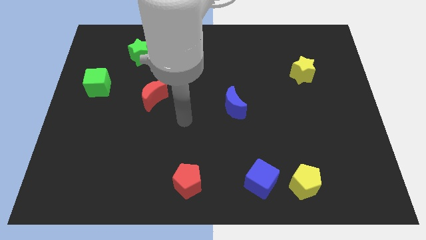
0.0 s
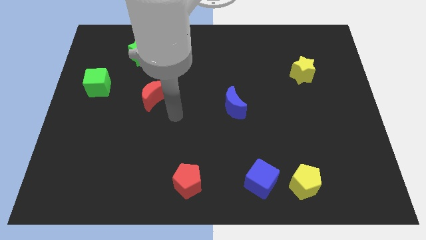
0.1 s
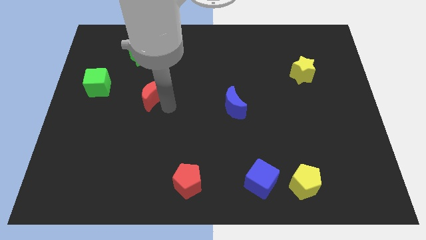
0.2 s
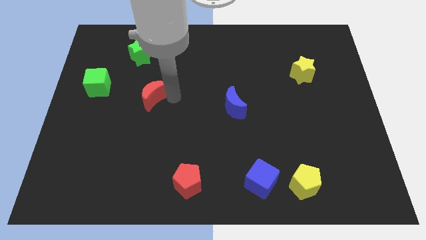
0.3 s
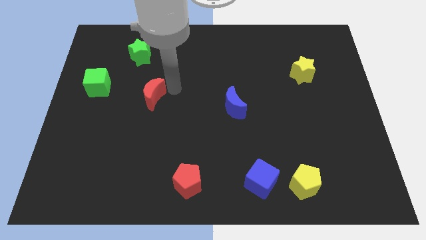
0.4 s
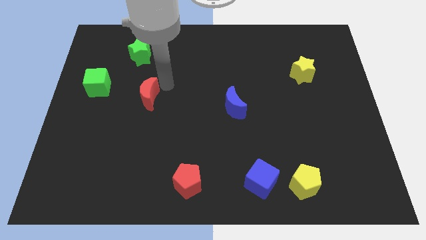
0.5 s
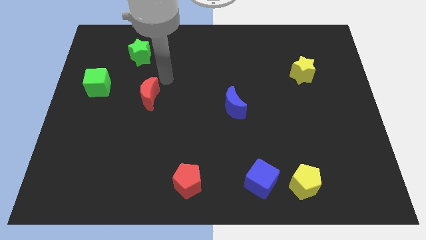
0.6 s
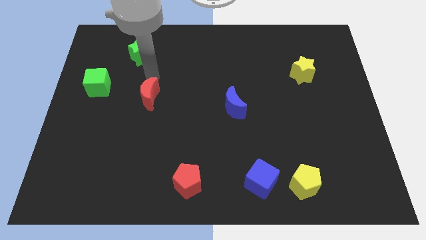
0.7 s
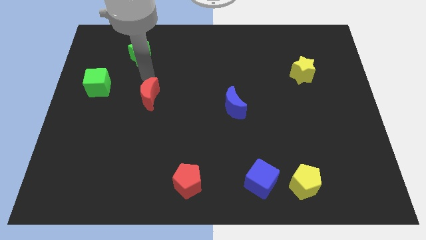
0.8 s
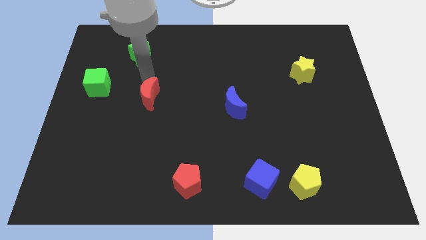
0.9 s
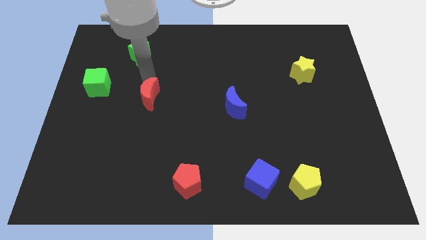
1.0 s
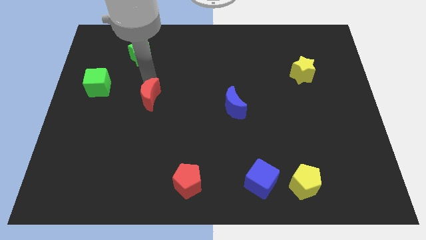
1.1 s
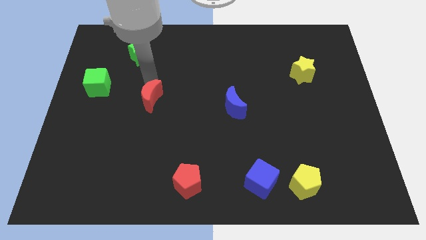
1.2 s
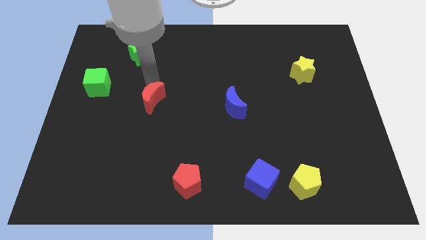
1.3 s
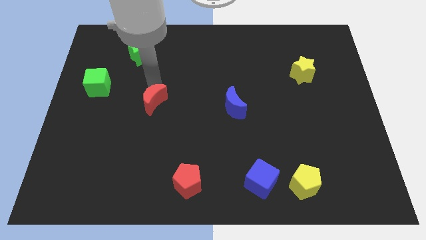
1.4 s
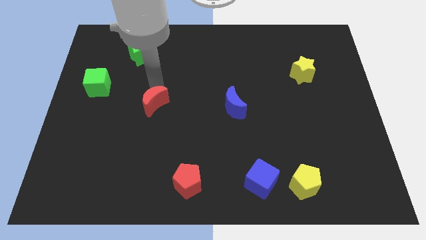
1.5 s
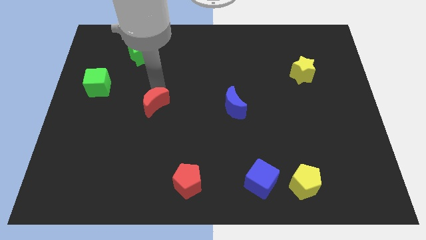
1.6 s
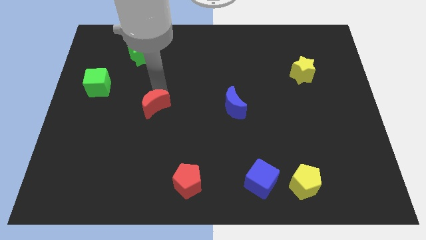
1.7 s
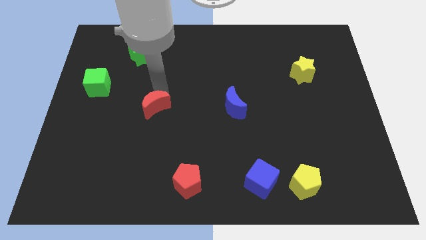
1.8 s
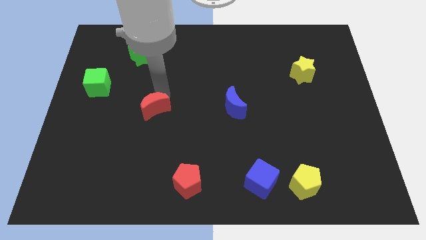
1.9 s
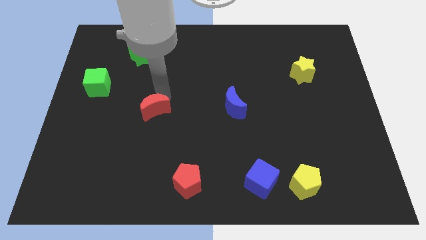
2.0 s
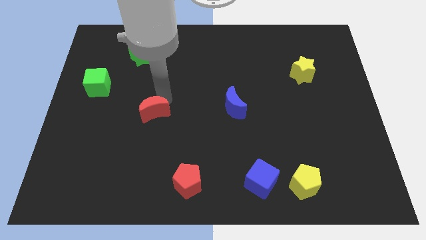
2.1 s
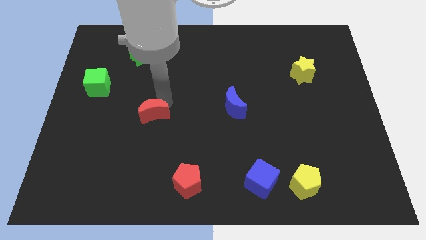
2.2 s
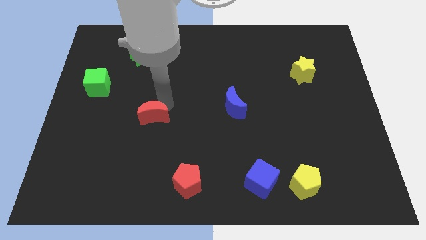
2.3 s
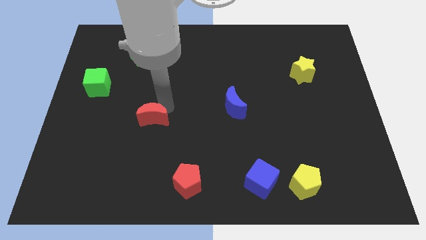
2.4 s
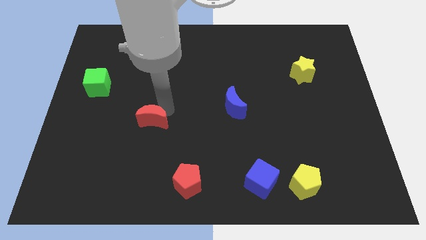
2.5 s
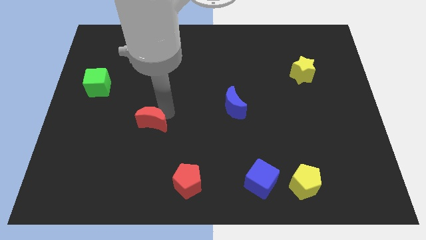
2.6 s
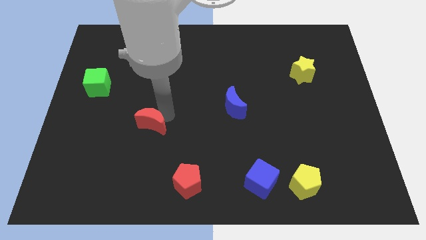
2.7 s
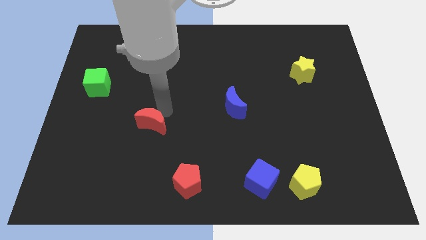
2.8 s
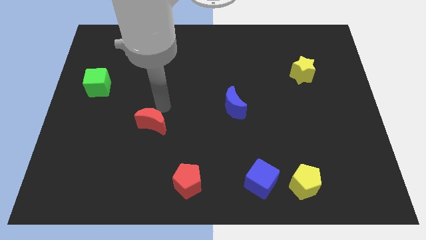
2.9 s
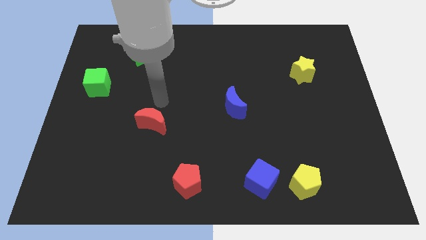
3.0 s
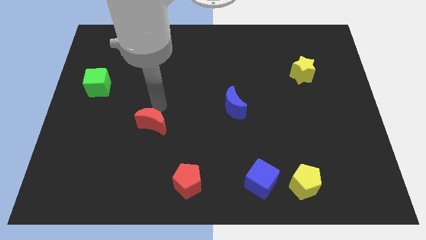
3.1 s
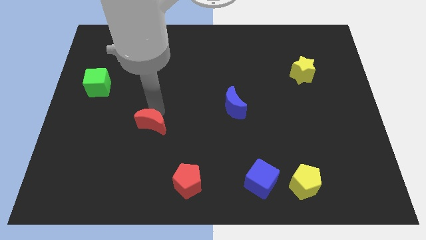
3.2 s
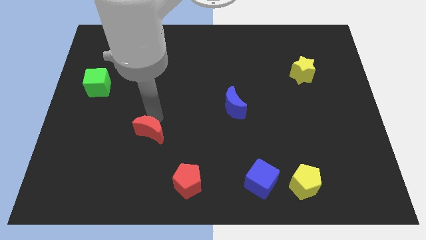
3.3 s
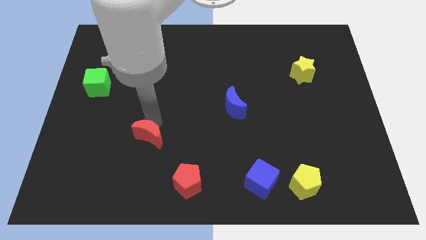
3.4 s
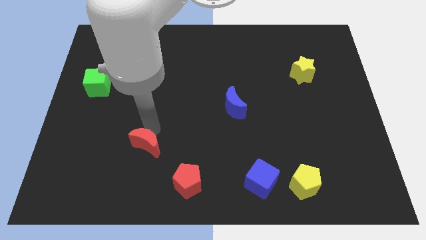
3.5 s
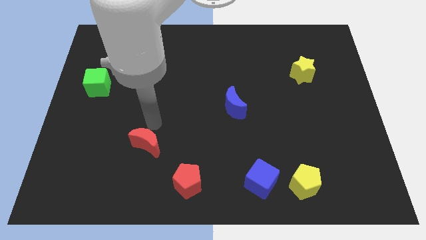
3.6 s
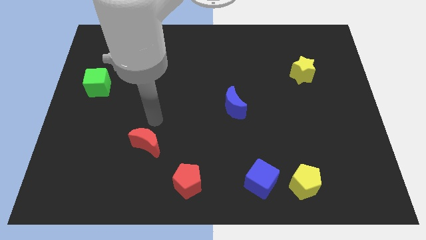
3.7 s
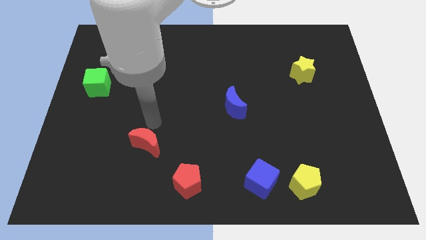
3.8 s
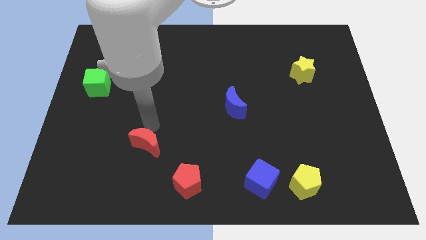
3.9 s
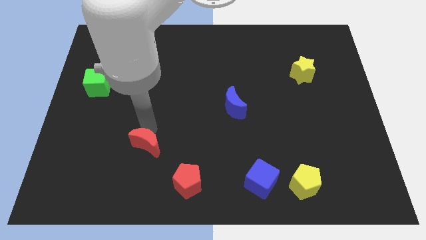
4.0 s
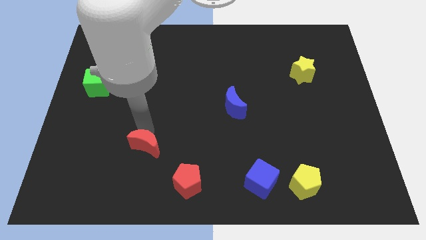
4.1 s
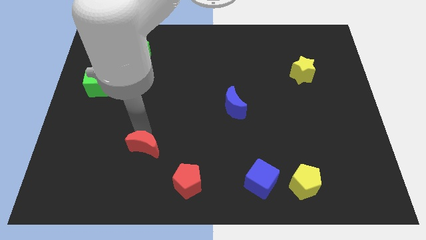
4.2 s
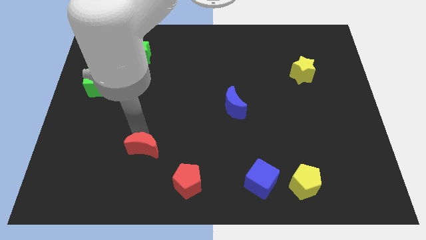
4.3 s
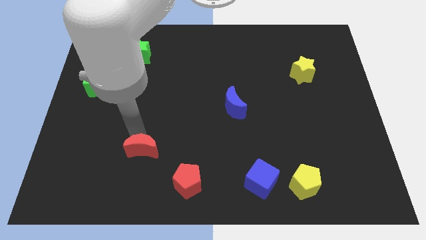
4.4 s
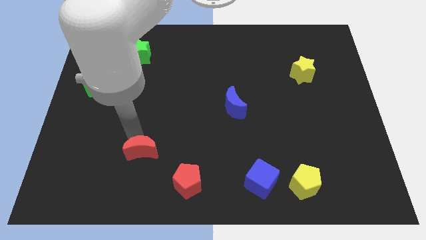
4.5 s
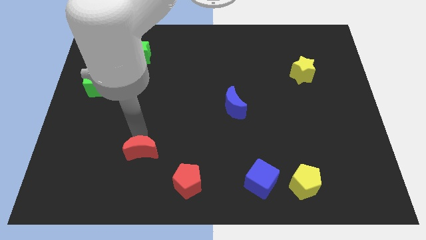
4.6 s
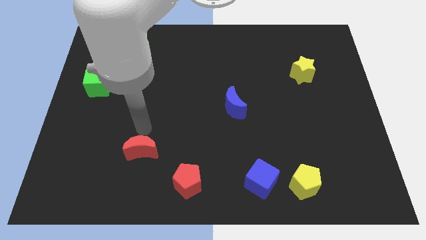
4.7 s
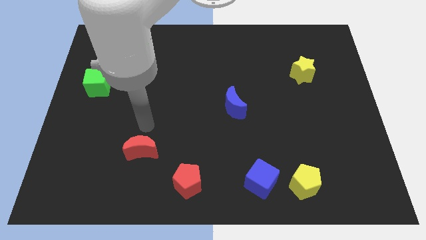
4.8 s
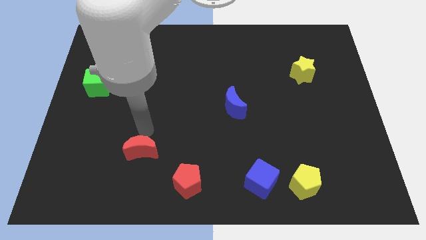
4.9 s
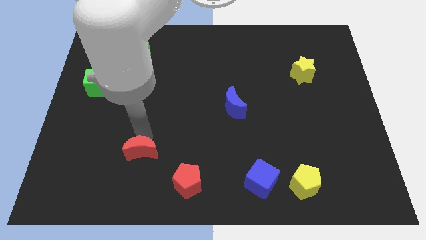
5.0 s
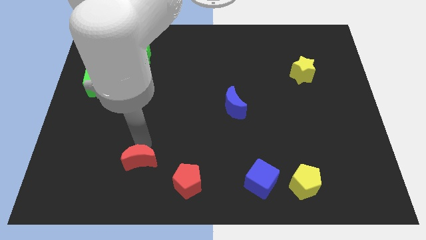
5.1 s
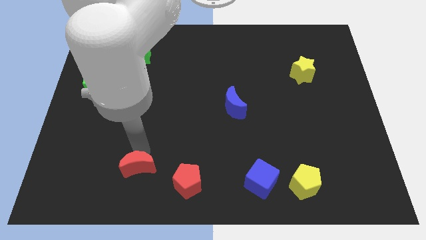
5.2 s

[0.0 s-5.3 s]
move the red moon to the left side of the red pentagon

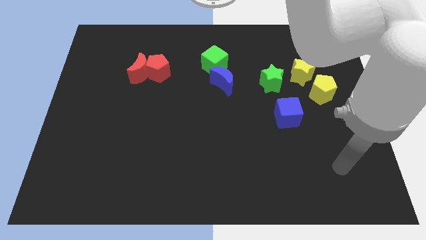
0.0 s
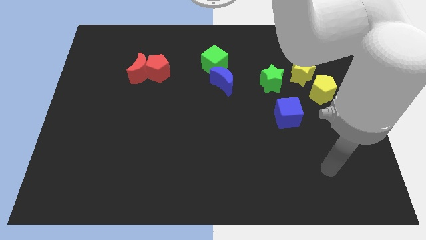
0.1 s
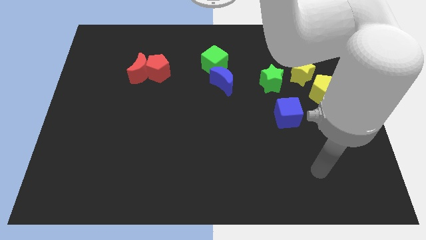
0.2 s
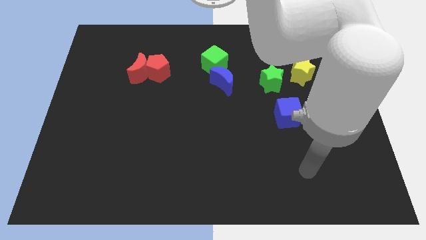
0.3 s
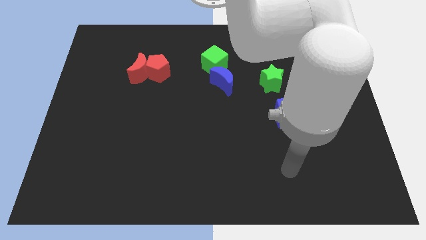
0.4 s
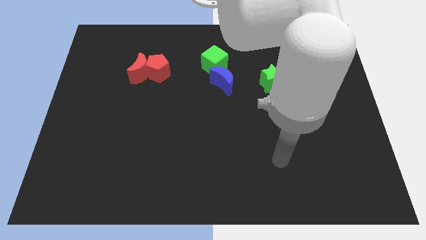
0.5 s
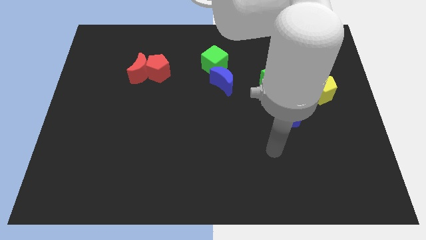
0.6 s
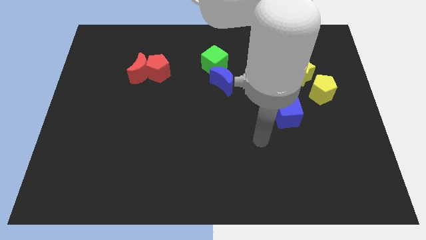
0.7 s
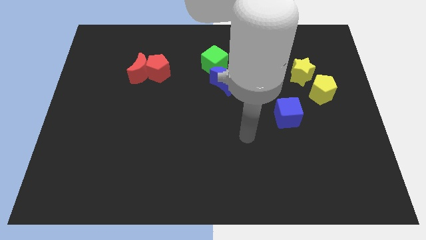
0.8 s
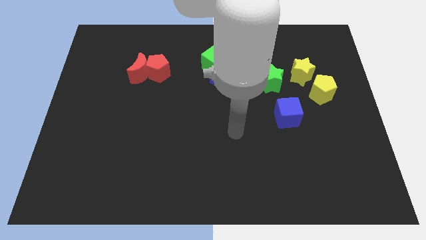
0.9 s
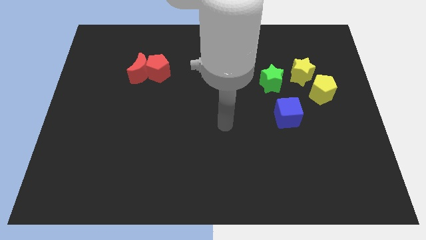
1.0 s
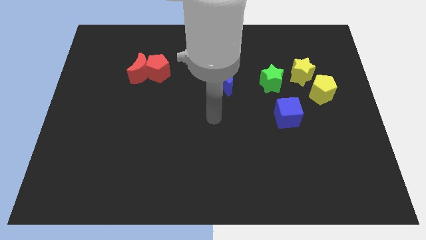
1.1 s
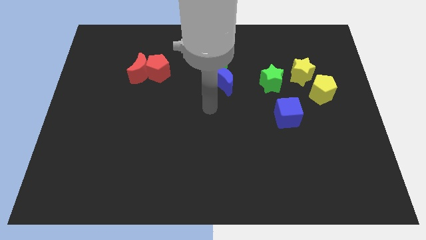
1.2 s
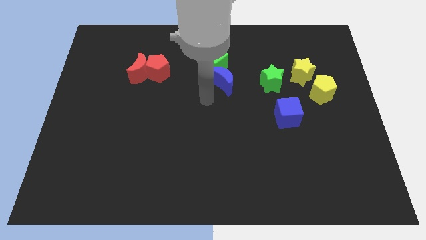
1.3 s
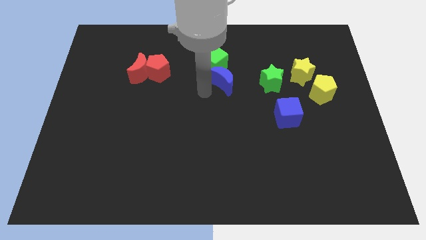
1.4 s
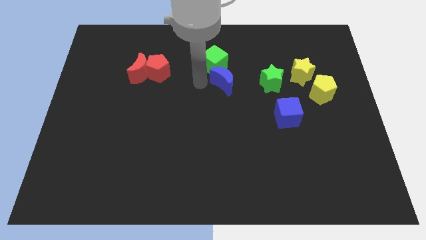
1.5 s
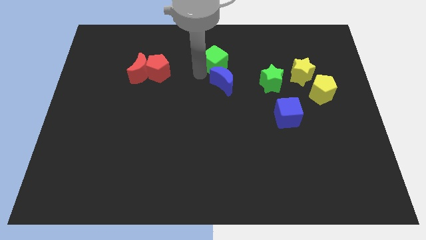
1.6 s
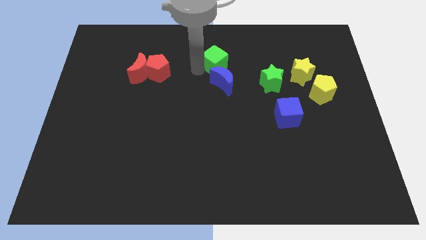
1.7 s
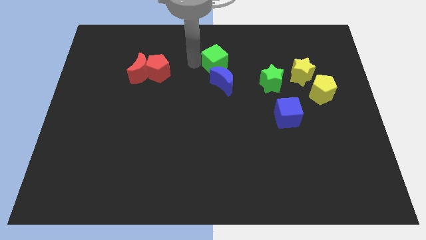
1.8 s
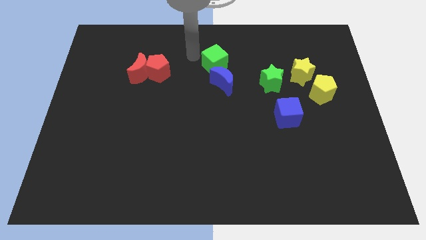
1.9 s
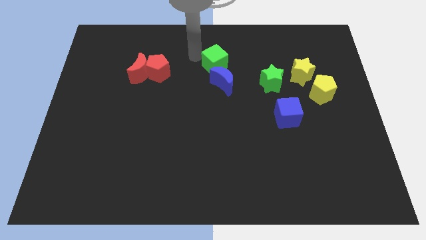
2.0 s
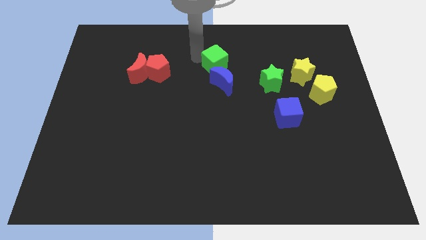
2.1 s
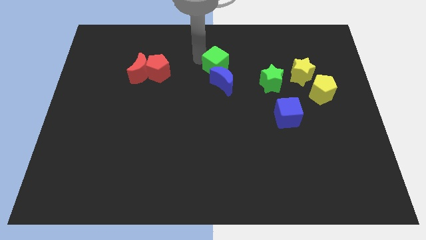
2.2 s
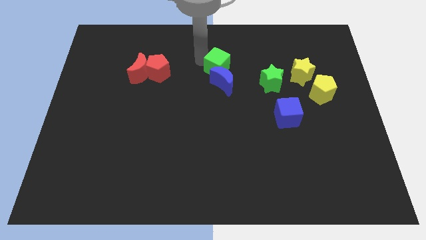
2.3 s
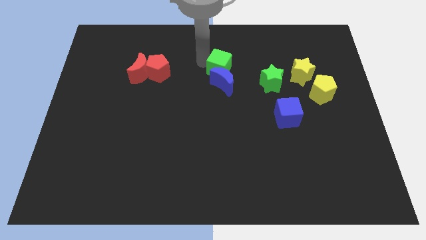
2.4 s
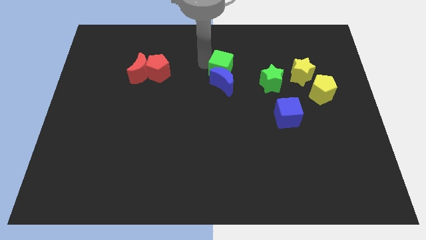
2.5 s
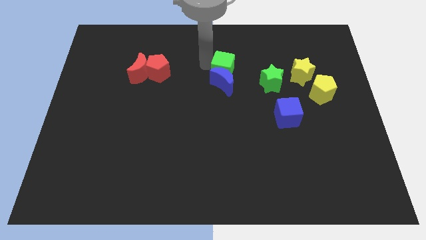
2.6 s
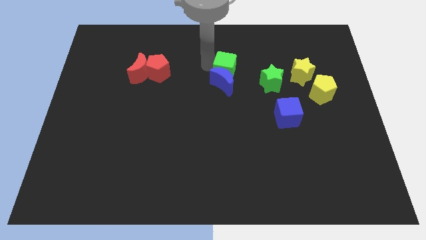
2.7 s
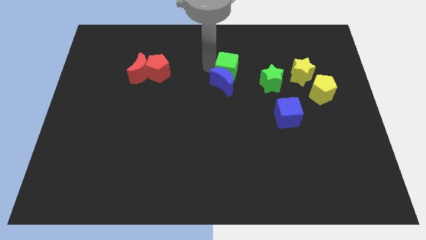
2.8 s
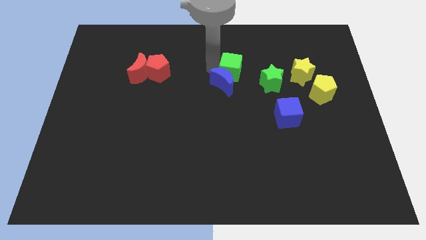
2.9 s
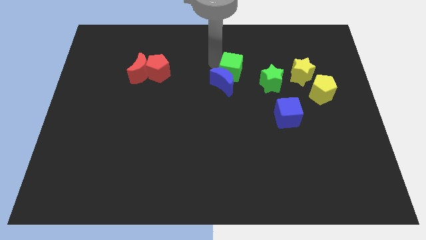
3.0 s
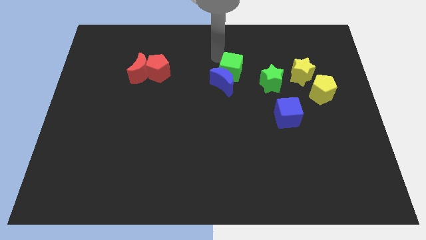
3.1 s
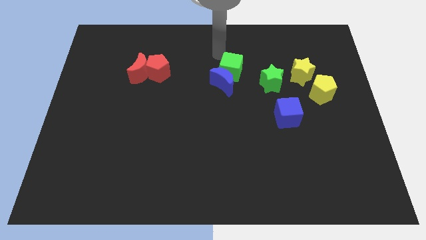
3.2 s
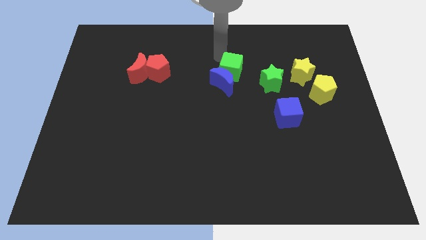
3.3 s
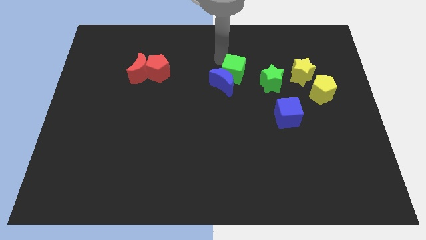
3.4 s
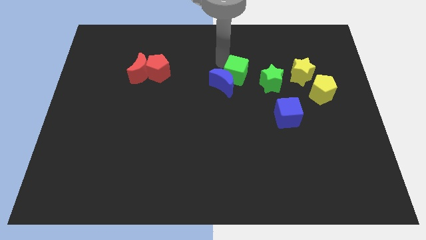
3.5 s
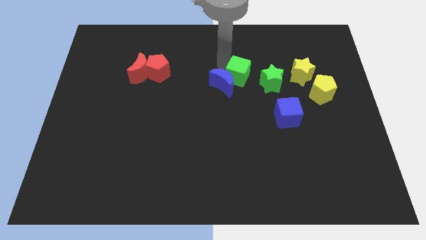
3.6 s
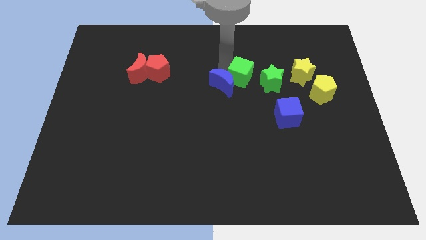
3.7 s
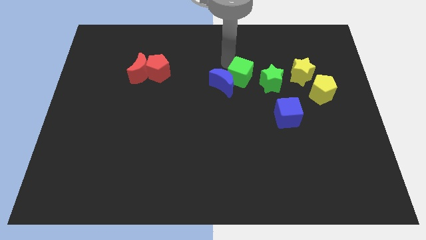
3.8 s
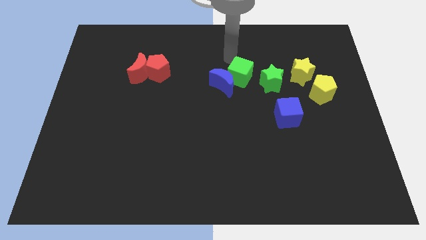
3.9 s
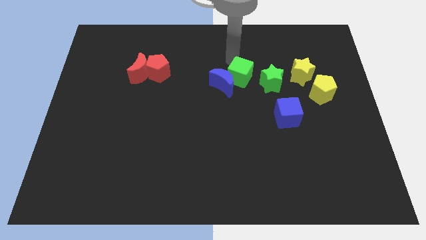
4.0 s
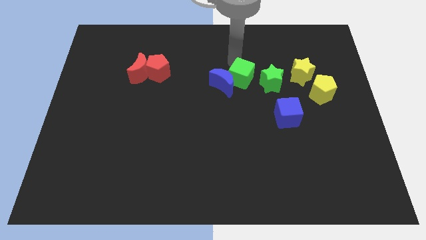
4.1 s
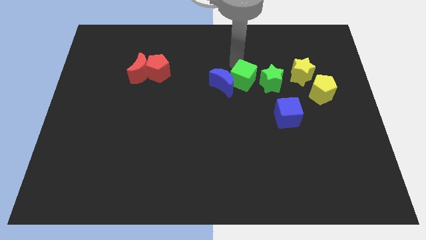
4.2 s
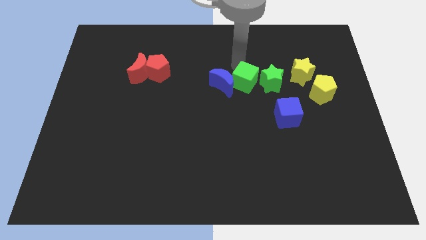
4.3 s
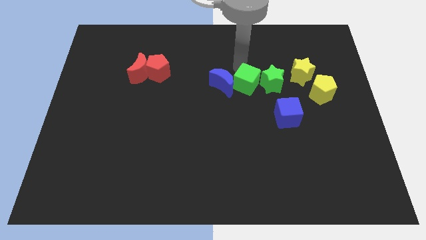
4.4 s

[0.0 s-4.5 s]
push the green cube to the bottom left side of the green star
